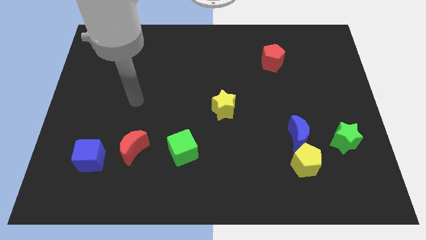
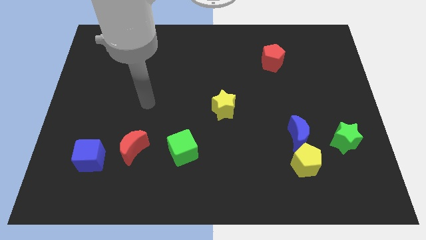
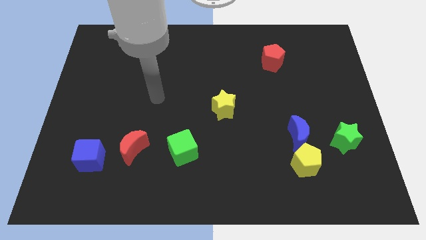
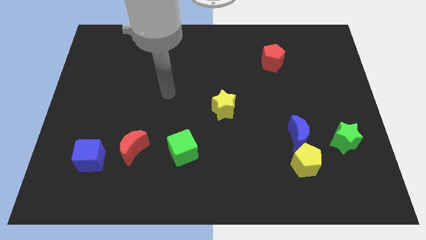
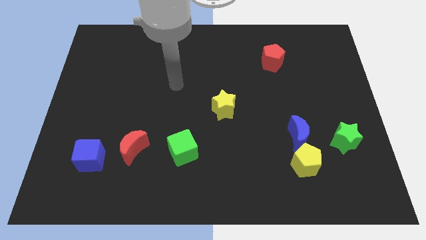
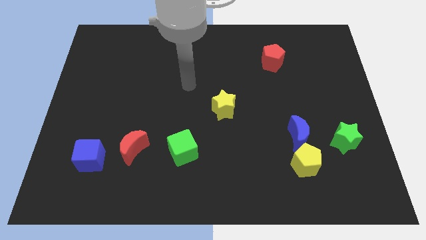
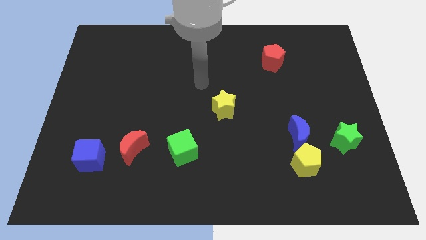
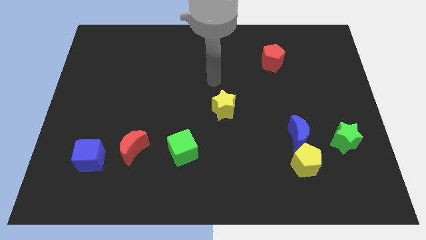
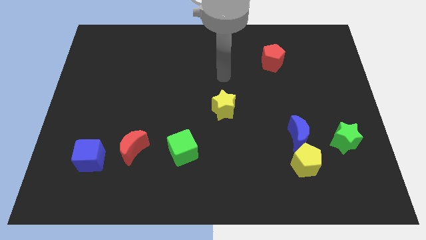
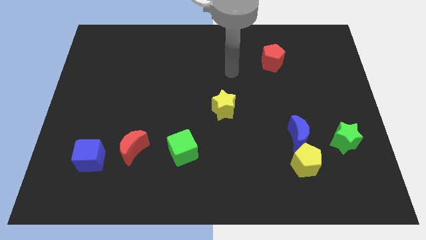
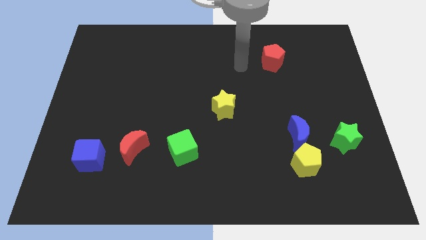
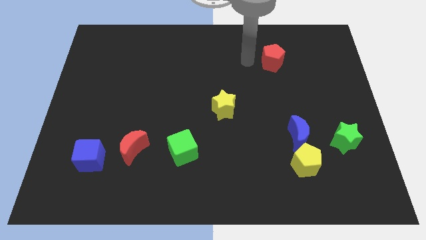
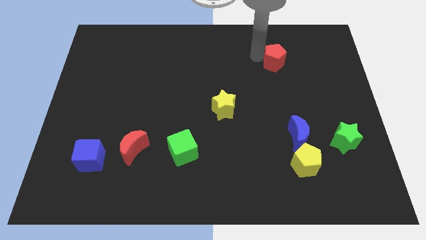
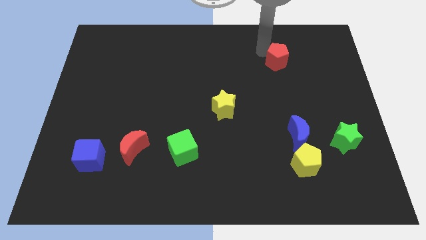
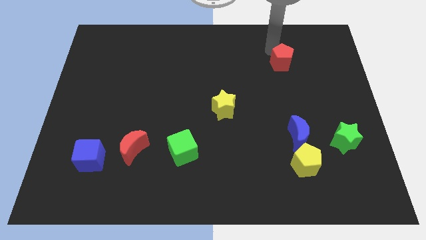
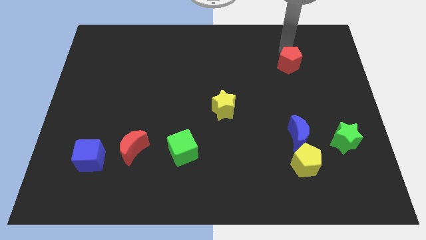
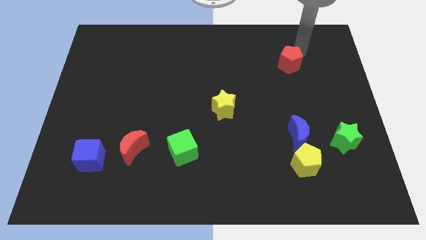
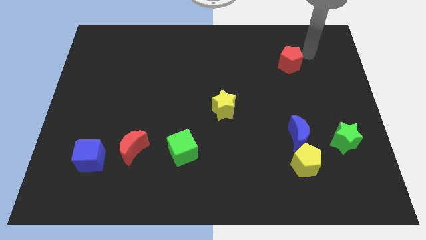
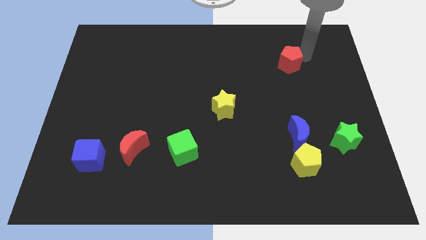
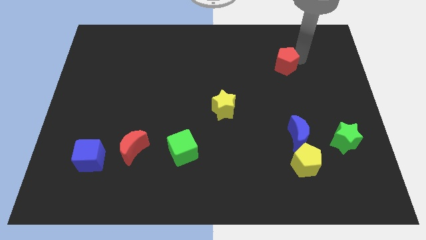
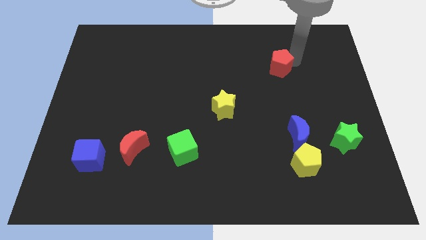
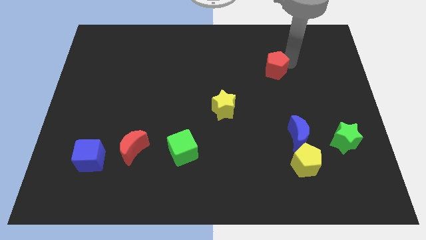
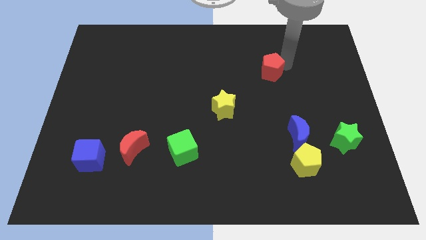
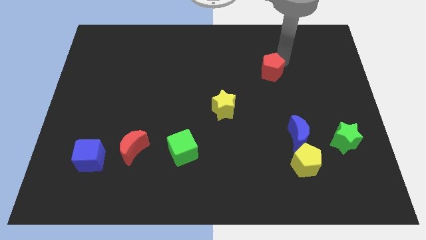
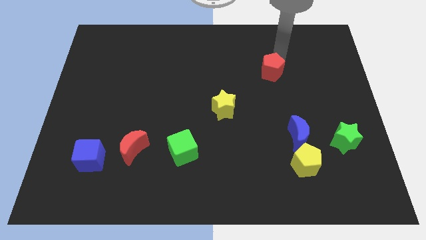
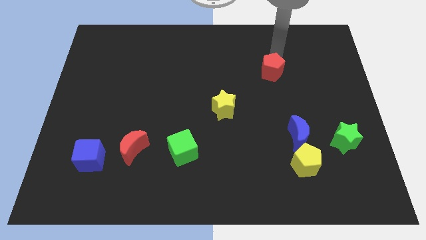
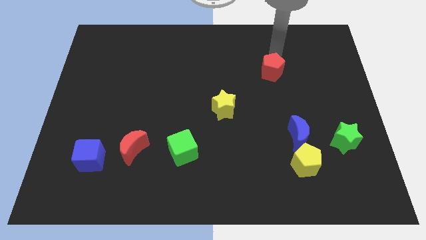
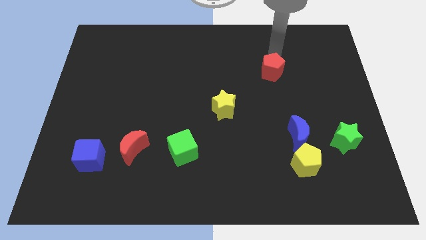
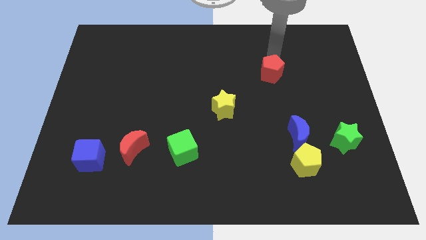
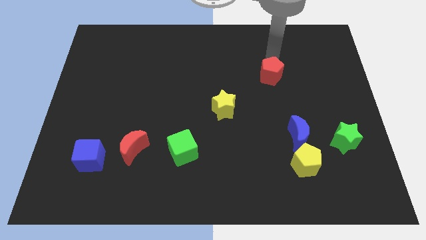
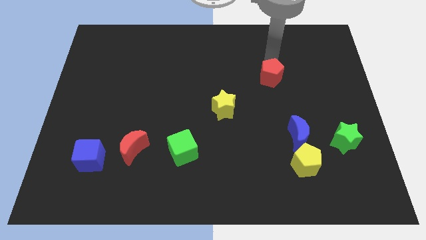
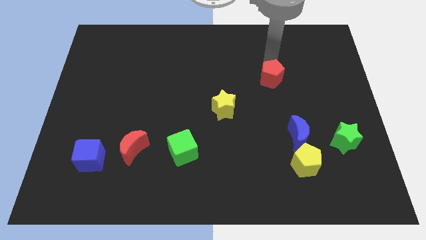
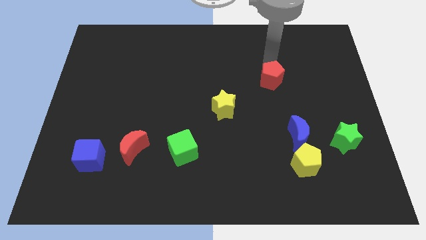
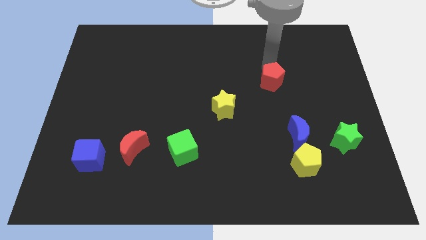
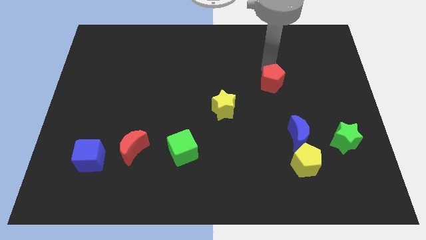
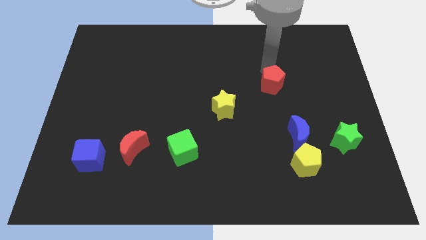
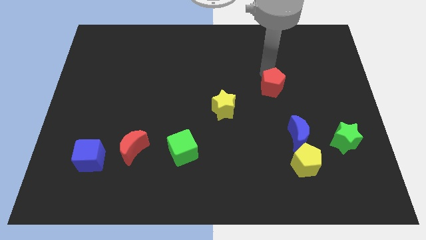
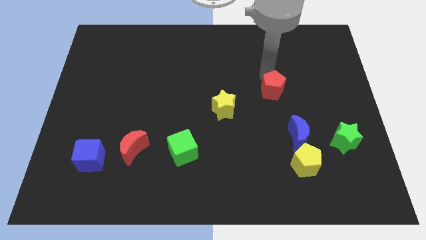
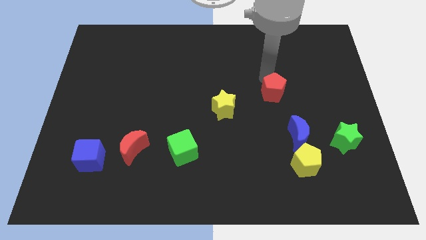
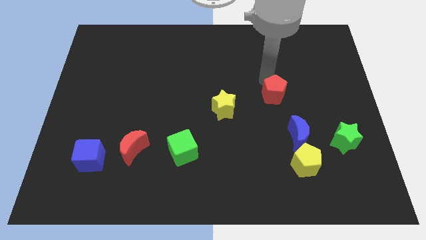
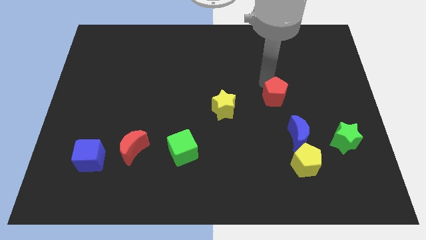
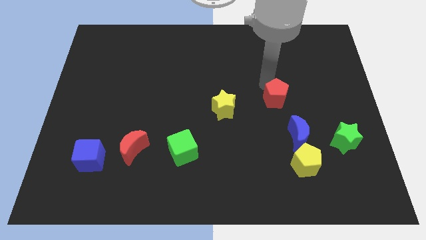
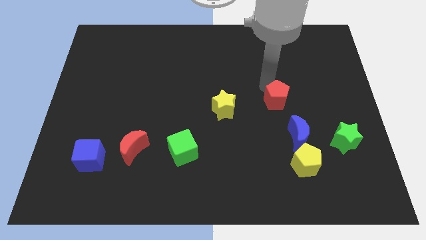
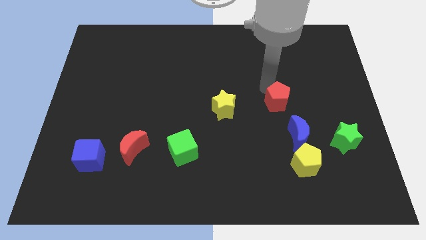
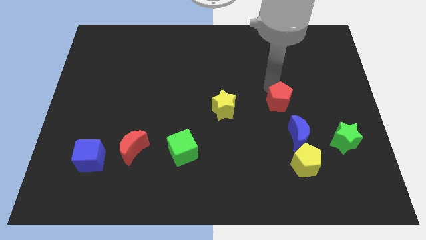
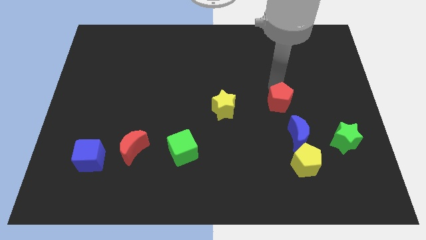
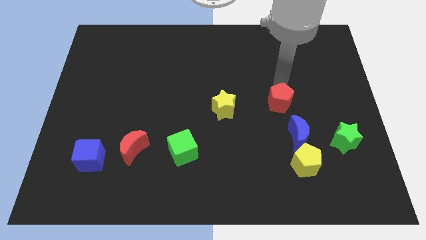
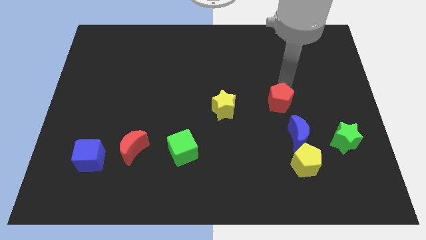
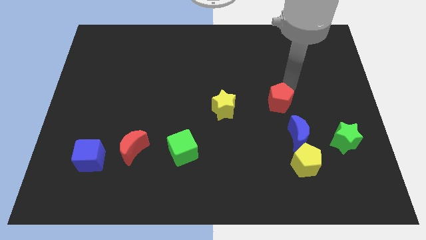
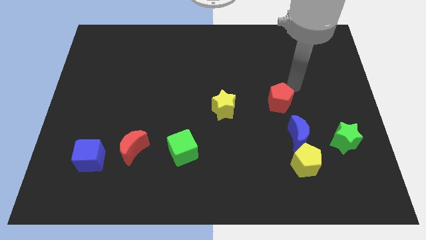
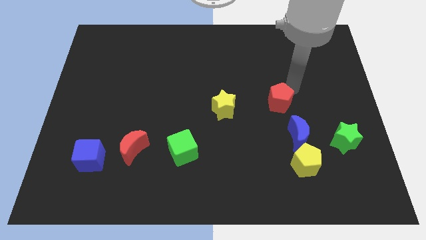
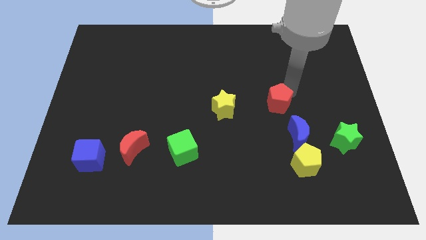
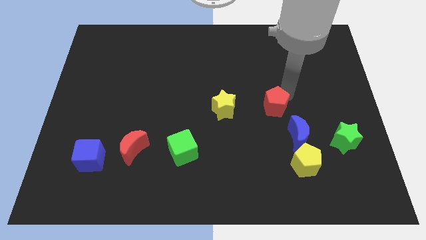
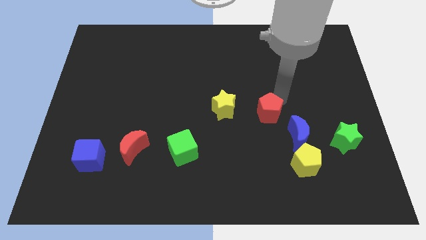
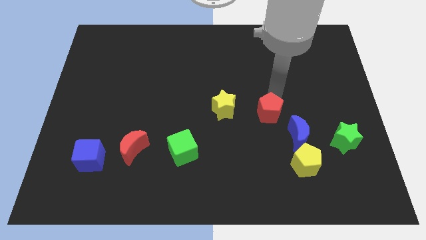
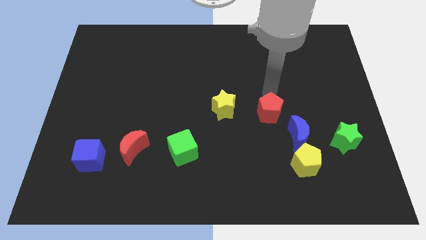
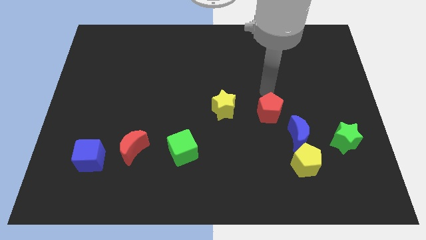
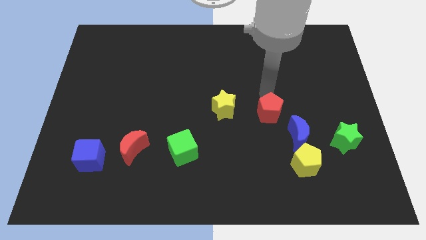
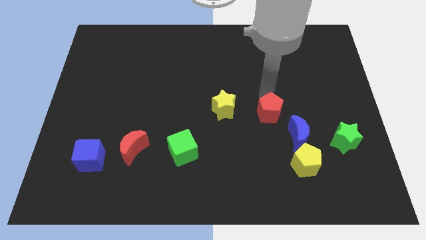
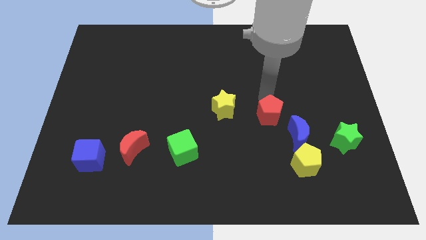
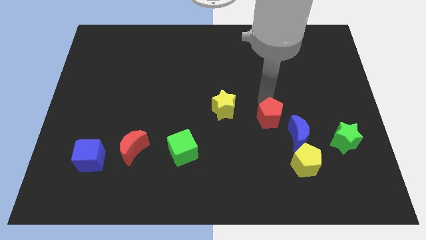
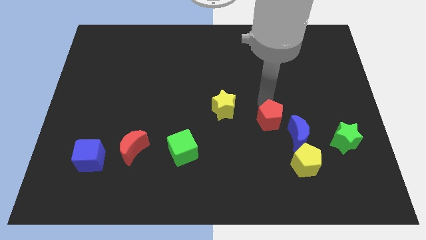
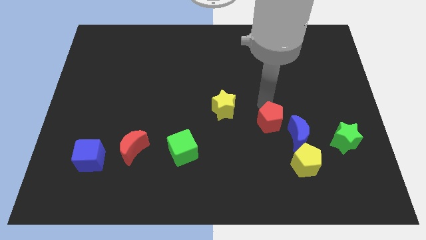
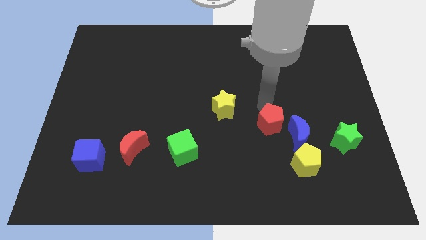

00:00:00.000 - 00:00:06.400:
push the red pentagon down

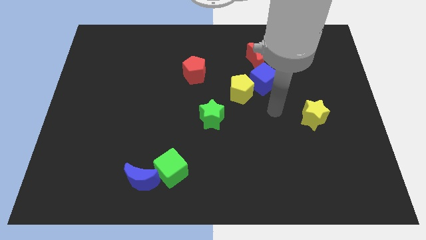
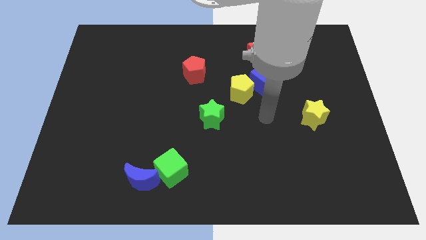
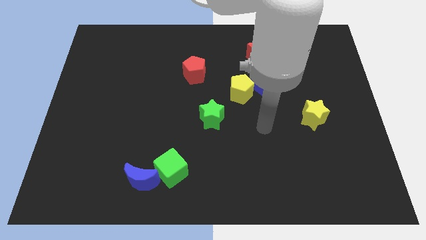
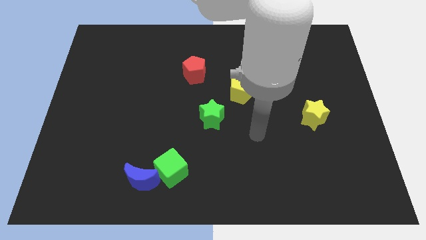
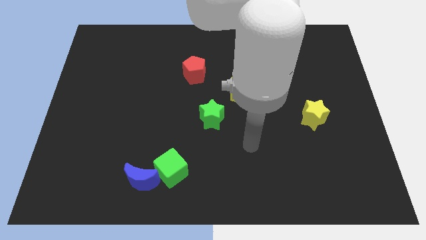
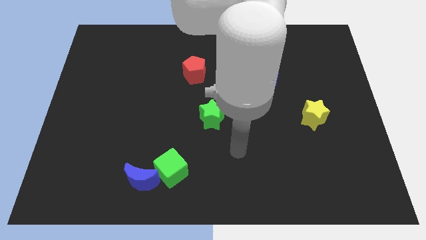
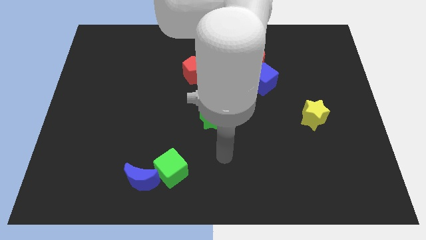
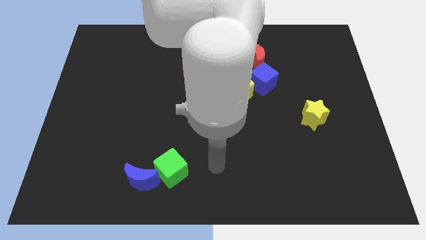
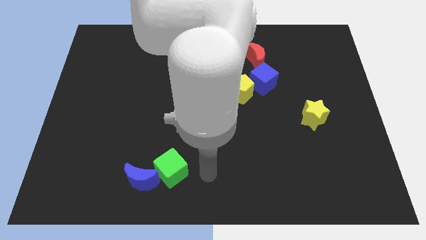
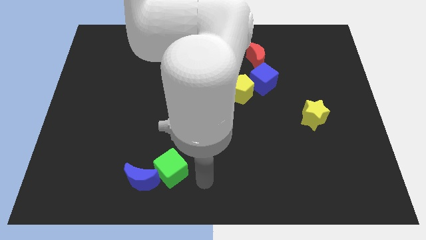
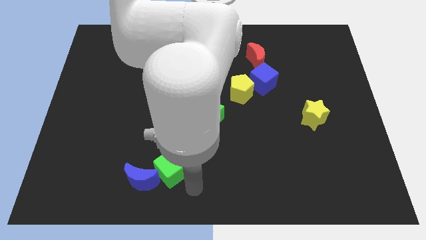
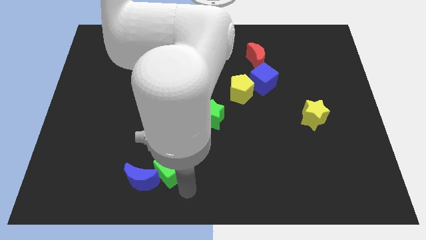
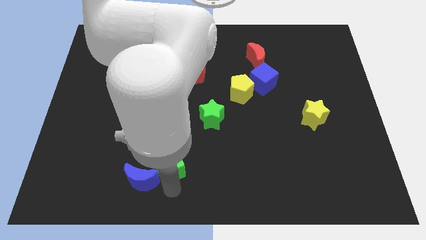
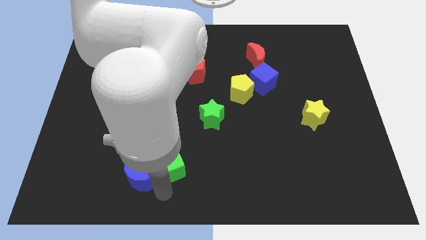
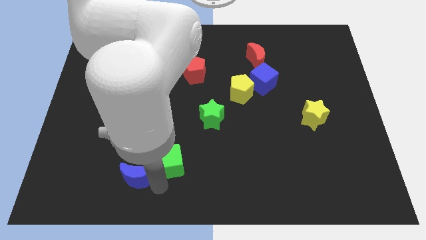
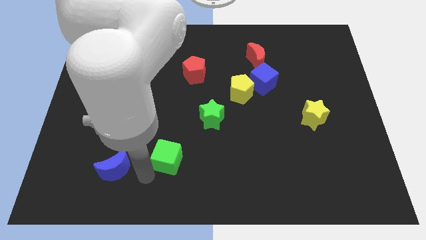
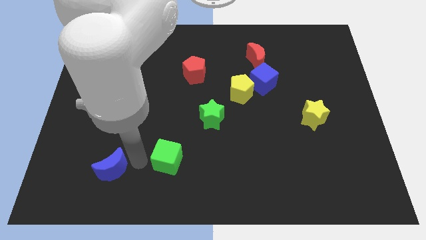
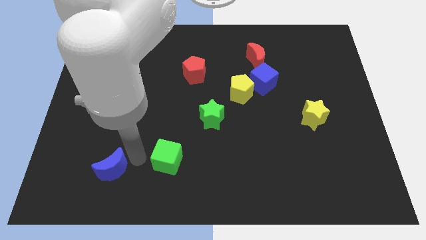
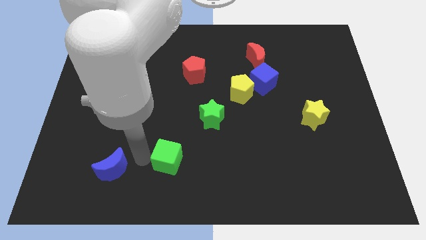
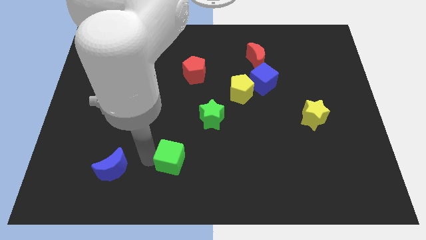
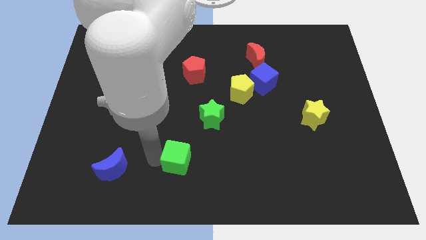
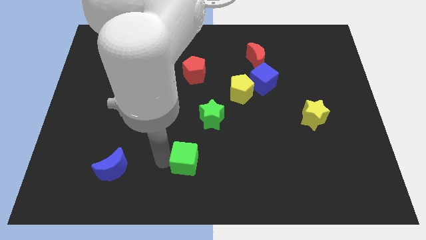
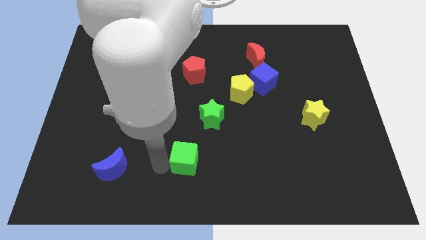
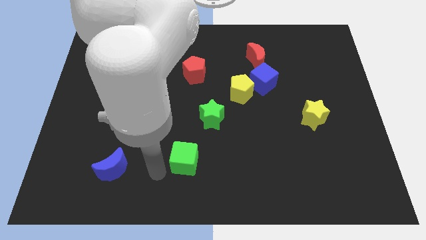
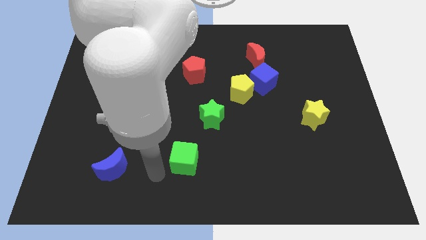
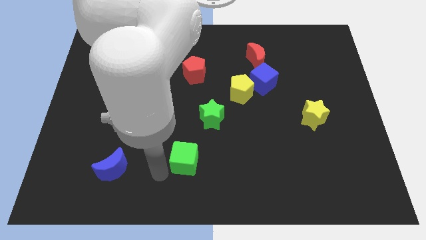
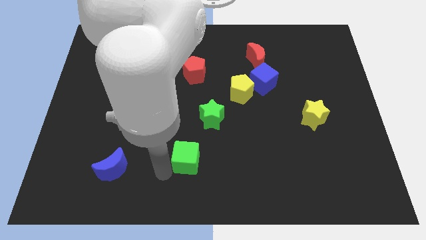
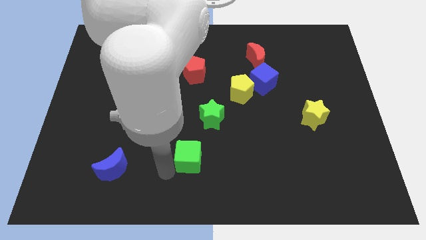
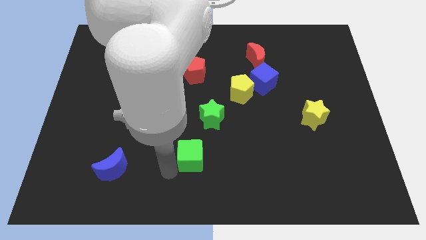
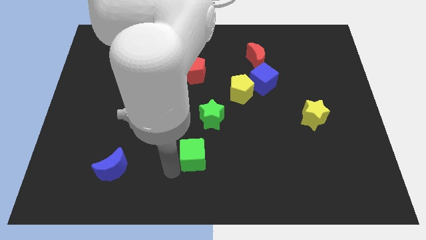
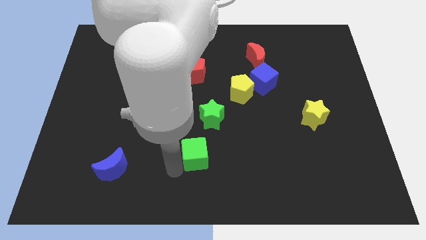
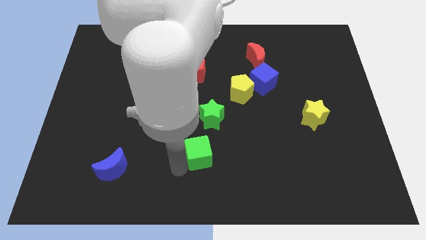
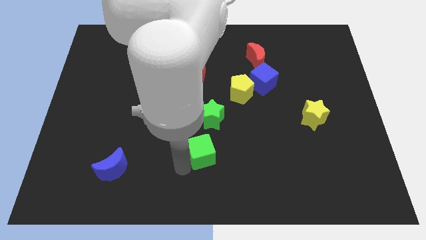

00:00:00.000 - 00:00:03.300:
slightly move the green cube diagonally up and to the right
